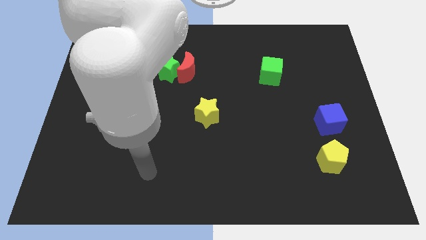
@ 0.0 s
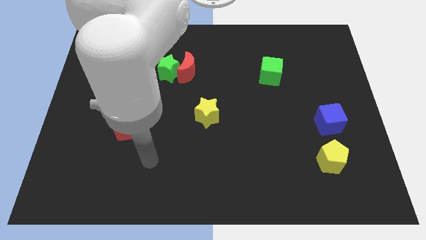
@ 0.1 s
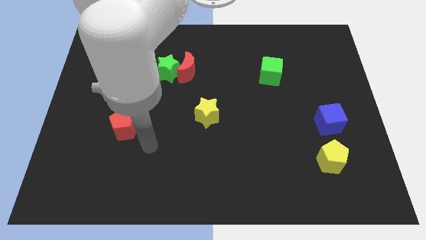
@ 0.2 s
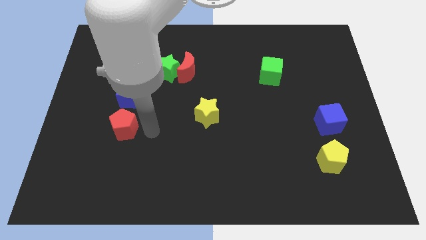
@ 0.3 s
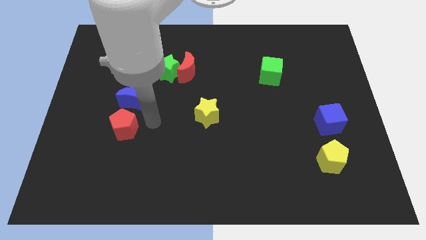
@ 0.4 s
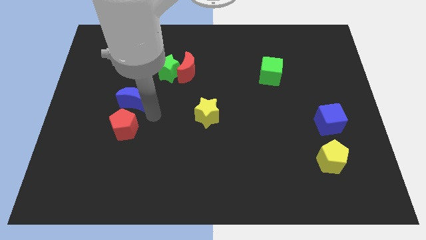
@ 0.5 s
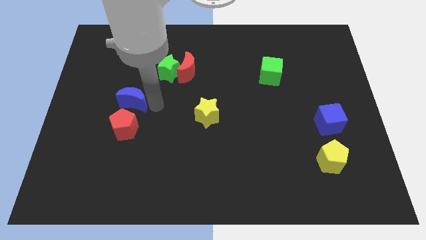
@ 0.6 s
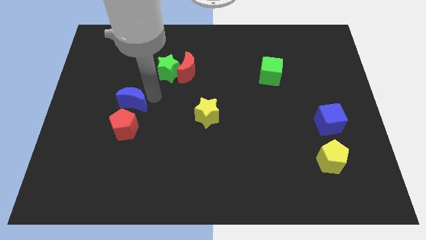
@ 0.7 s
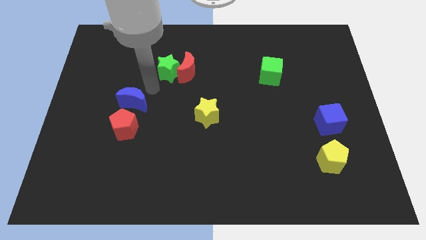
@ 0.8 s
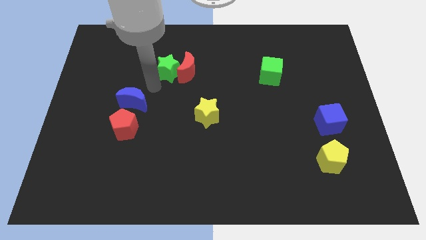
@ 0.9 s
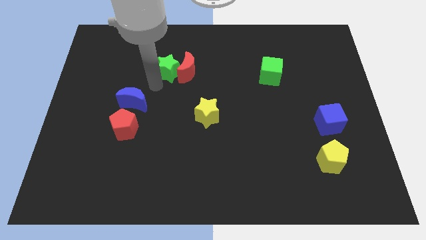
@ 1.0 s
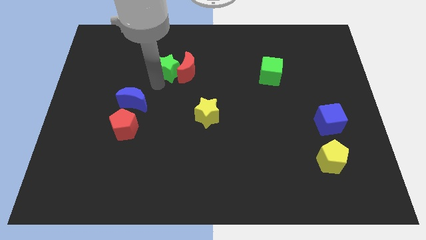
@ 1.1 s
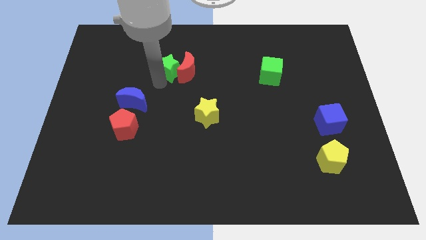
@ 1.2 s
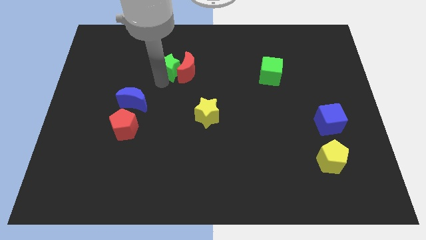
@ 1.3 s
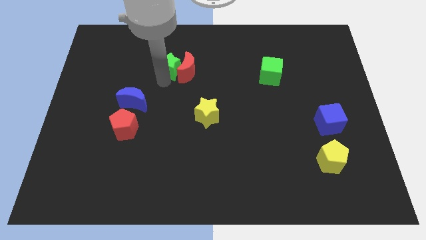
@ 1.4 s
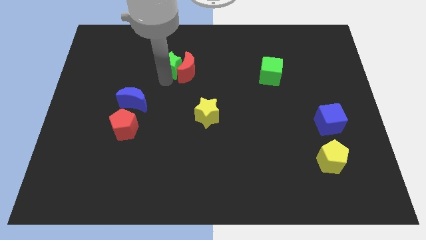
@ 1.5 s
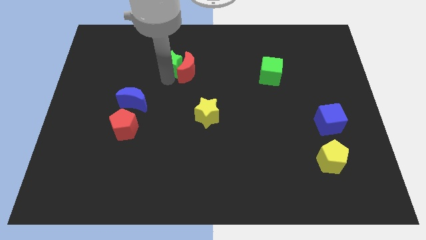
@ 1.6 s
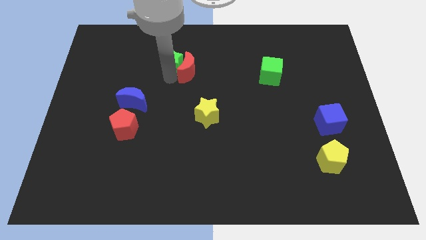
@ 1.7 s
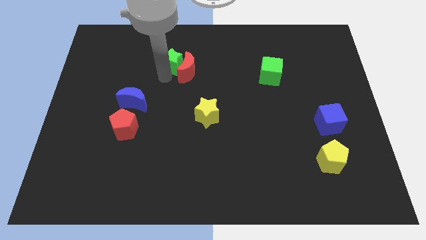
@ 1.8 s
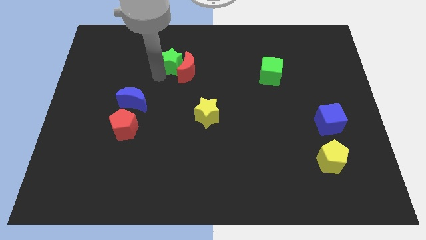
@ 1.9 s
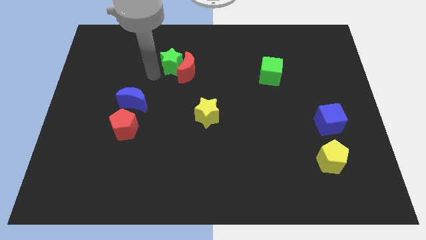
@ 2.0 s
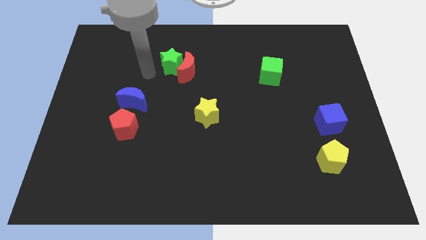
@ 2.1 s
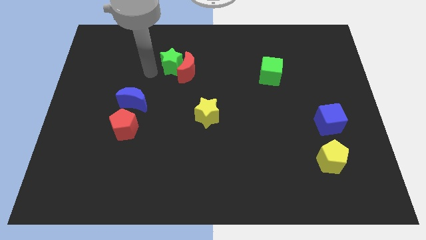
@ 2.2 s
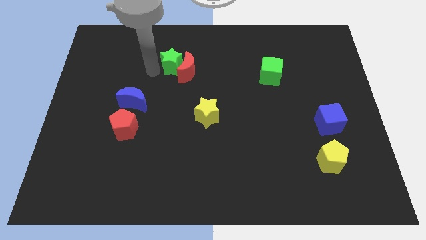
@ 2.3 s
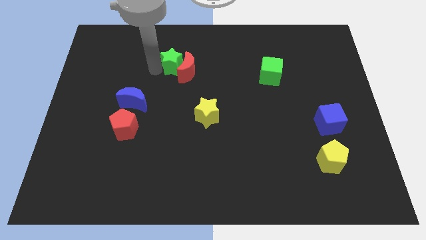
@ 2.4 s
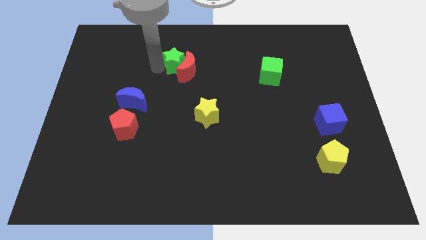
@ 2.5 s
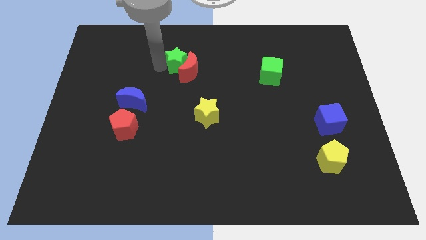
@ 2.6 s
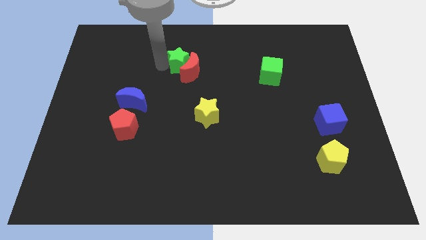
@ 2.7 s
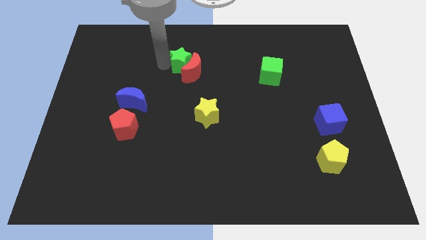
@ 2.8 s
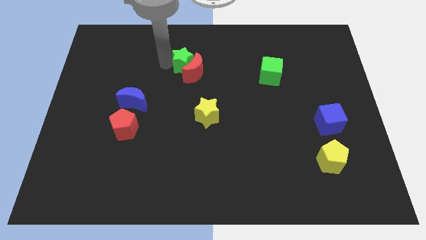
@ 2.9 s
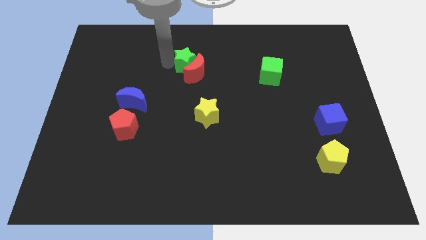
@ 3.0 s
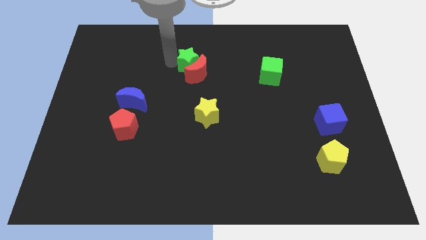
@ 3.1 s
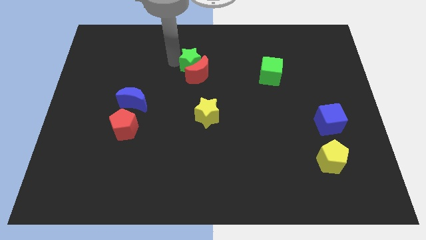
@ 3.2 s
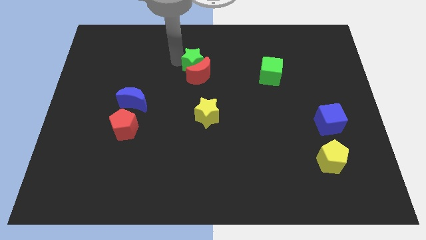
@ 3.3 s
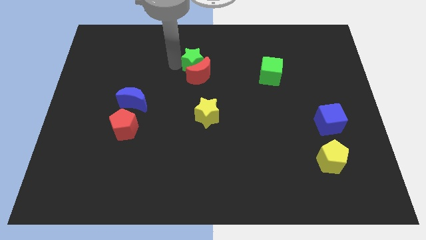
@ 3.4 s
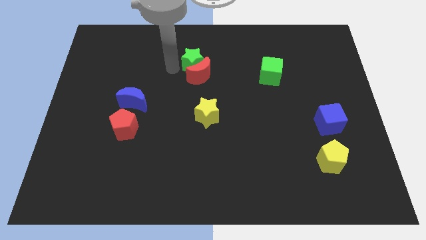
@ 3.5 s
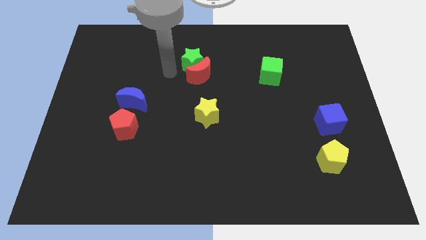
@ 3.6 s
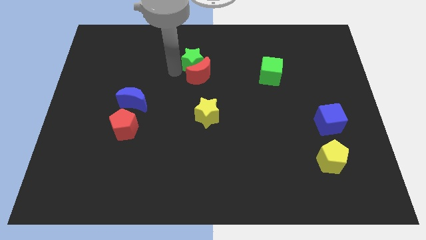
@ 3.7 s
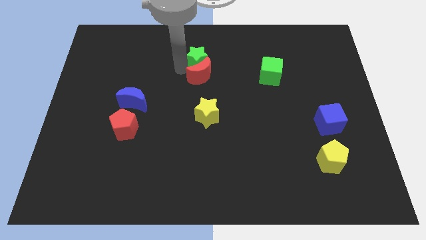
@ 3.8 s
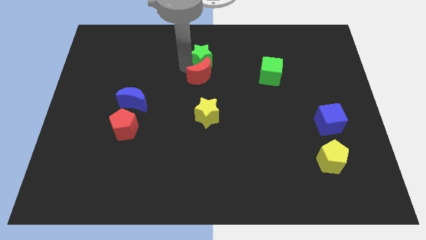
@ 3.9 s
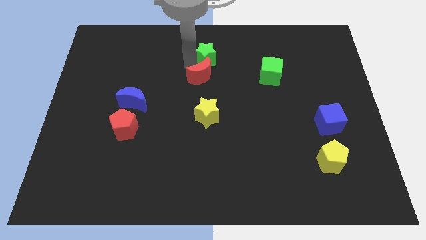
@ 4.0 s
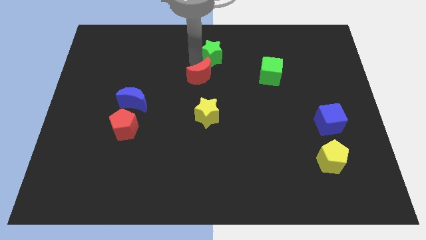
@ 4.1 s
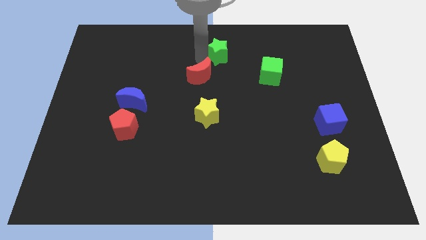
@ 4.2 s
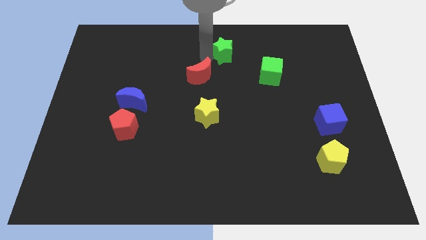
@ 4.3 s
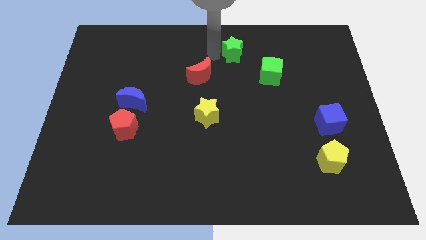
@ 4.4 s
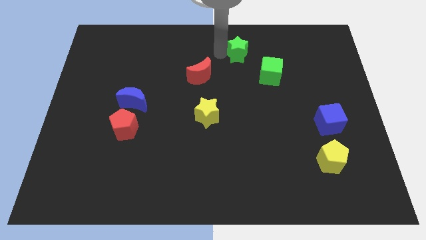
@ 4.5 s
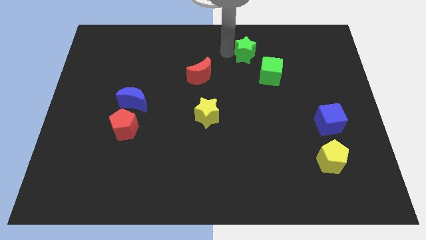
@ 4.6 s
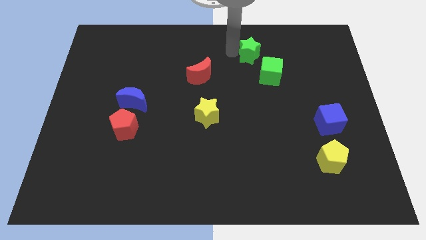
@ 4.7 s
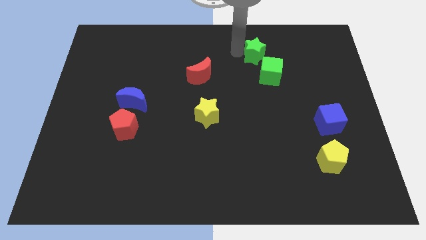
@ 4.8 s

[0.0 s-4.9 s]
move the green star right

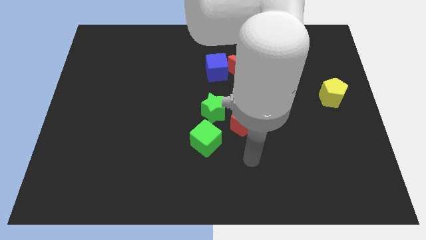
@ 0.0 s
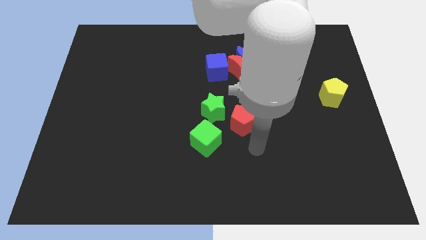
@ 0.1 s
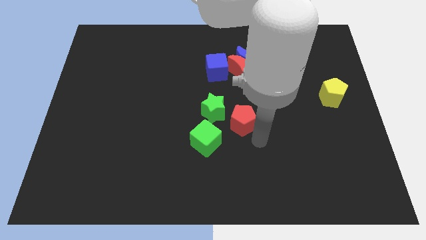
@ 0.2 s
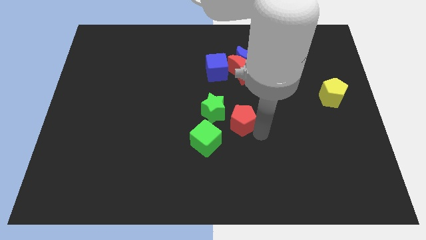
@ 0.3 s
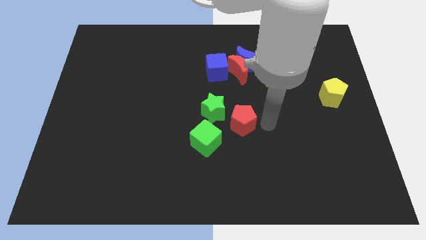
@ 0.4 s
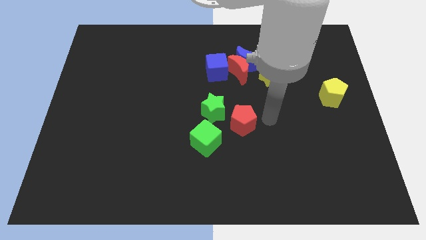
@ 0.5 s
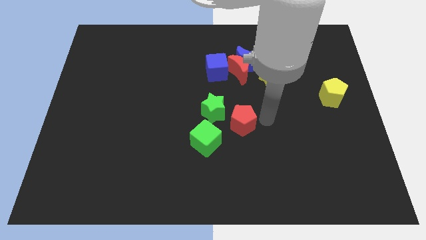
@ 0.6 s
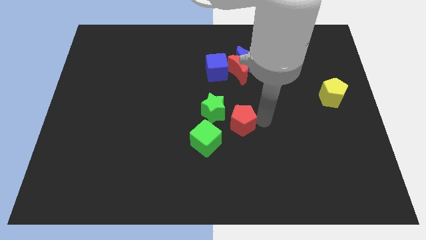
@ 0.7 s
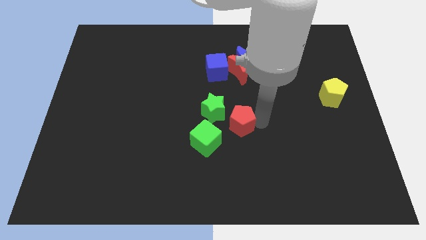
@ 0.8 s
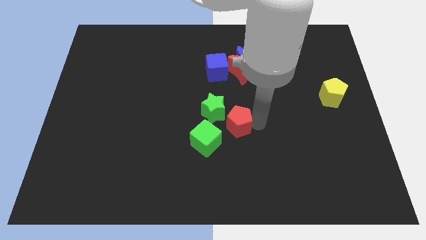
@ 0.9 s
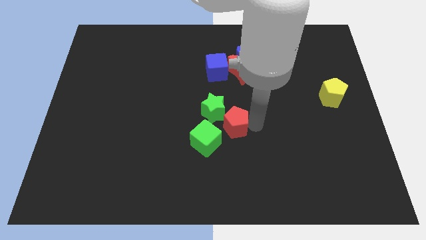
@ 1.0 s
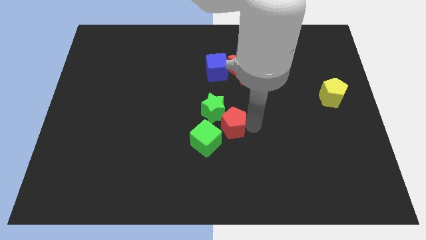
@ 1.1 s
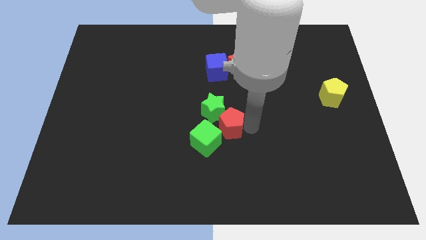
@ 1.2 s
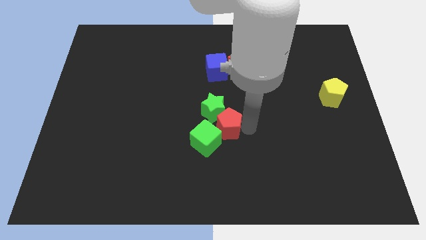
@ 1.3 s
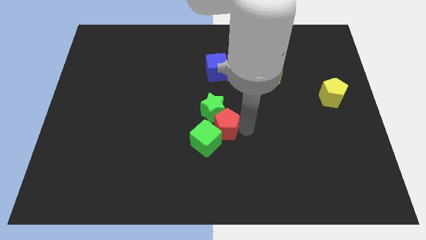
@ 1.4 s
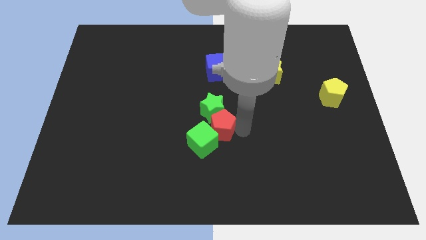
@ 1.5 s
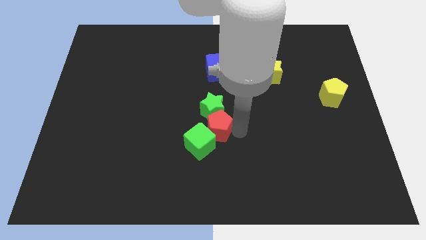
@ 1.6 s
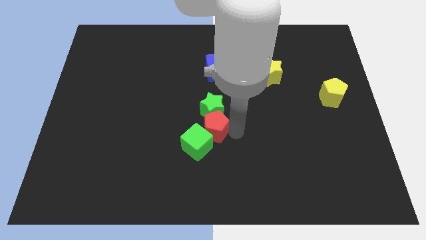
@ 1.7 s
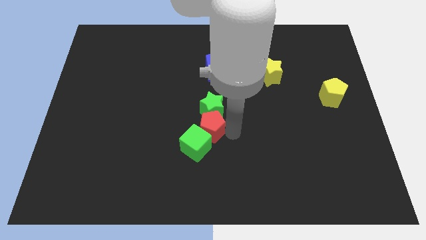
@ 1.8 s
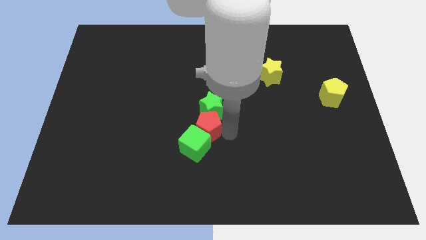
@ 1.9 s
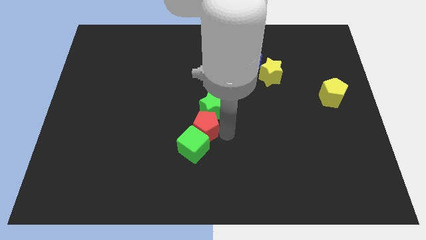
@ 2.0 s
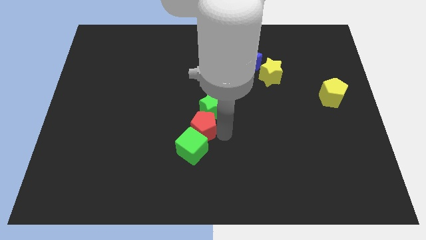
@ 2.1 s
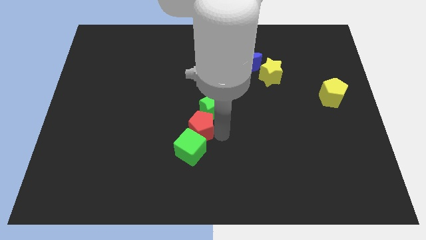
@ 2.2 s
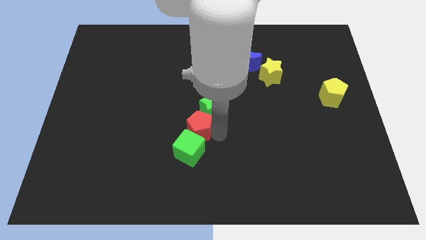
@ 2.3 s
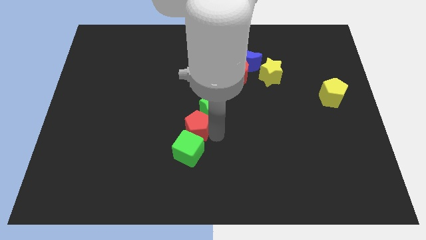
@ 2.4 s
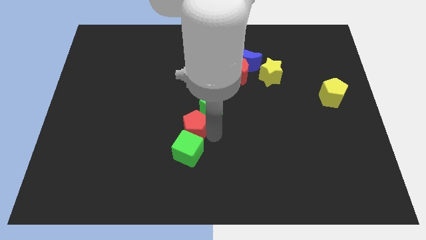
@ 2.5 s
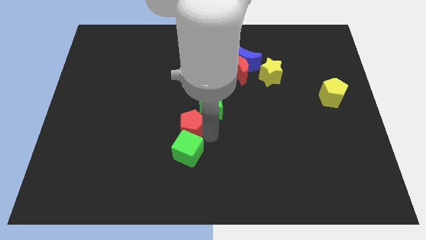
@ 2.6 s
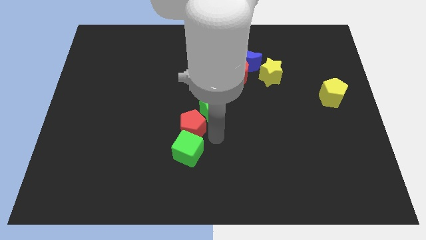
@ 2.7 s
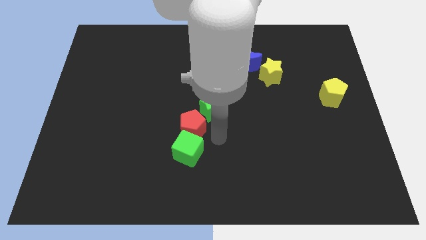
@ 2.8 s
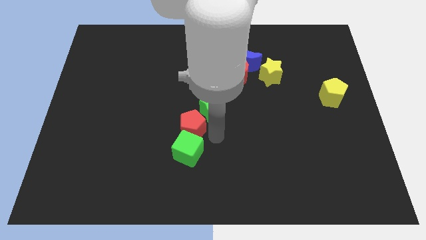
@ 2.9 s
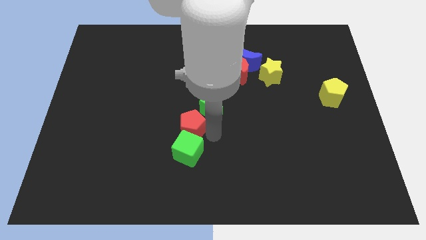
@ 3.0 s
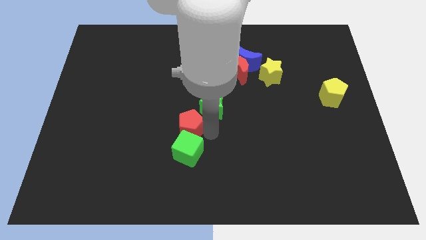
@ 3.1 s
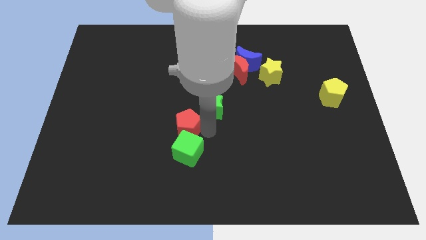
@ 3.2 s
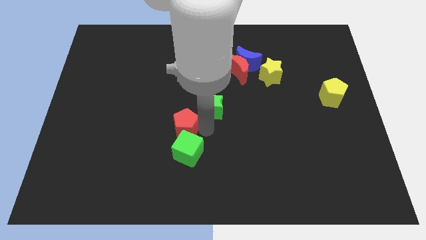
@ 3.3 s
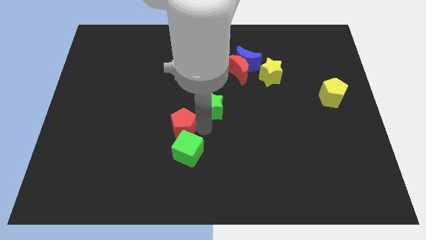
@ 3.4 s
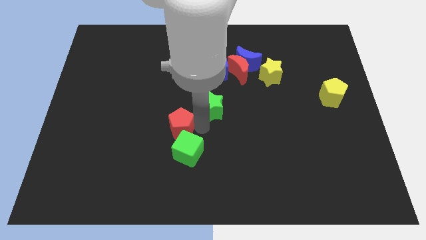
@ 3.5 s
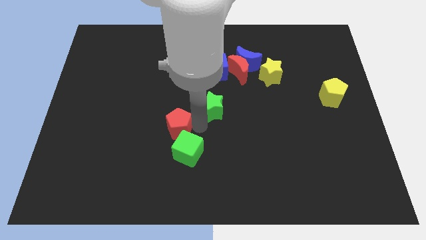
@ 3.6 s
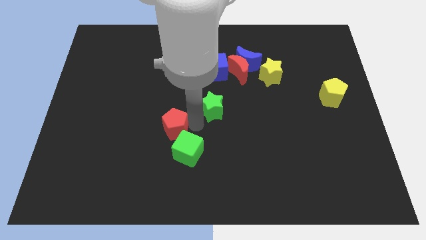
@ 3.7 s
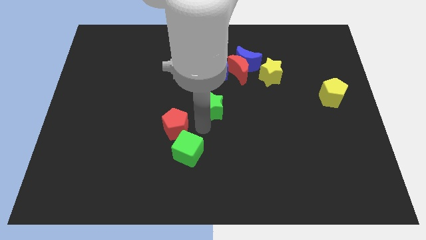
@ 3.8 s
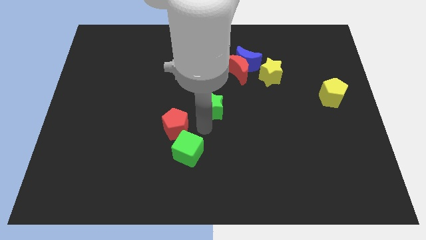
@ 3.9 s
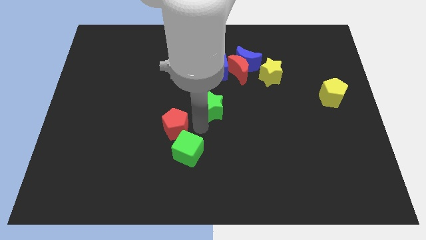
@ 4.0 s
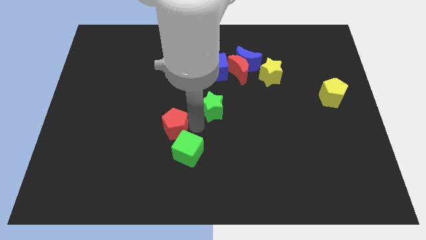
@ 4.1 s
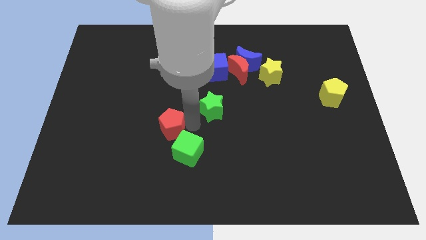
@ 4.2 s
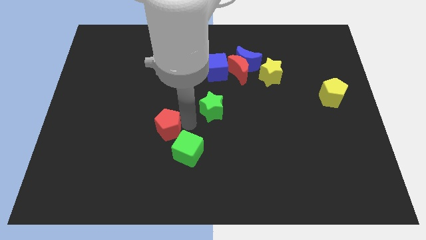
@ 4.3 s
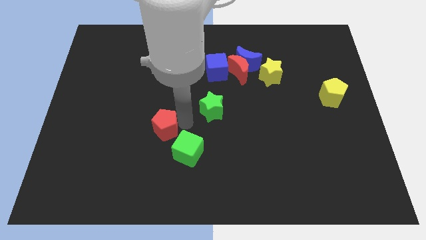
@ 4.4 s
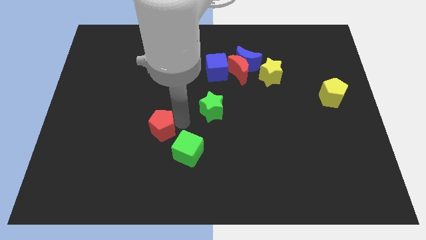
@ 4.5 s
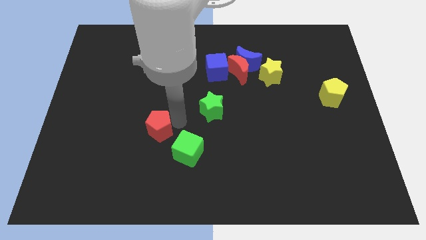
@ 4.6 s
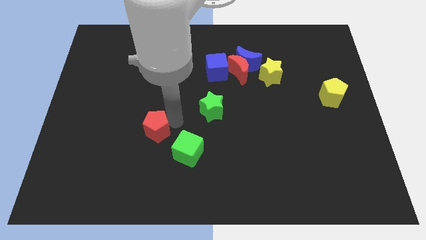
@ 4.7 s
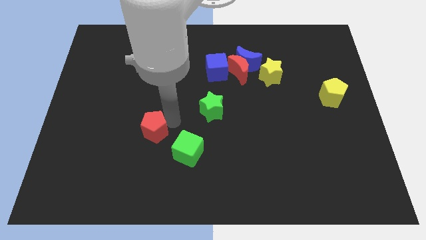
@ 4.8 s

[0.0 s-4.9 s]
slide the red pentagon left
